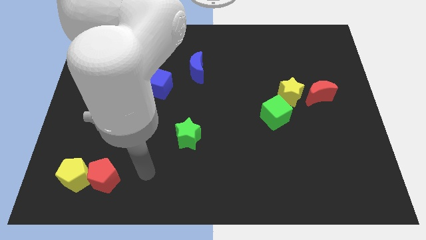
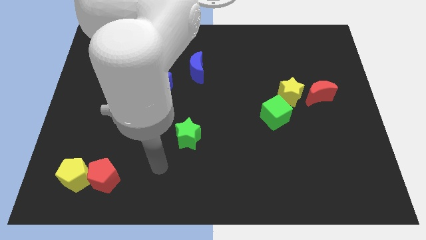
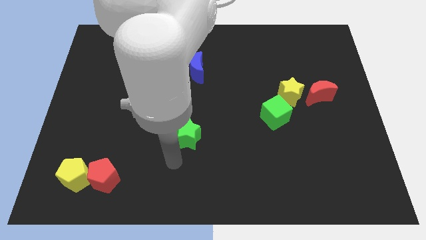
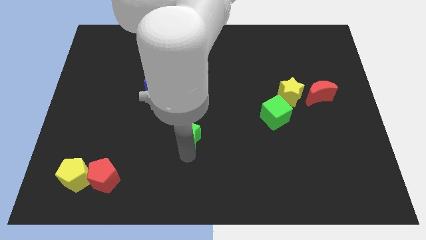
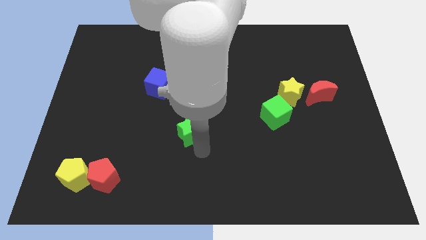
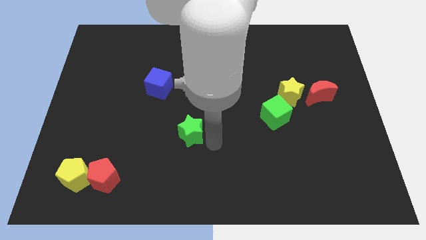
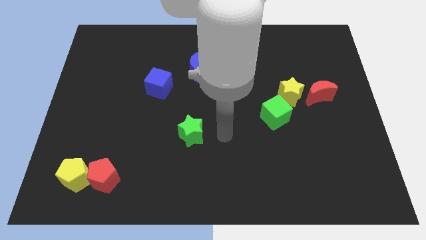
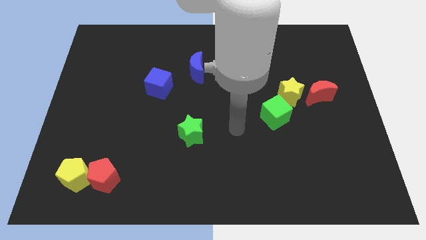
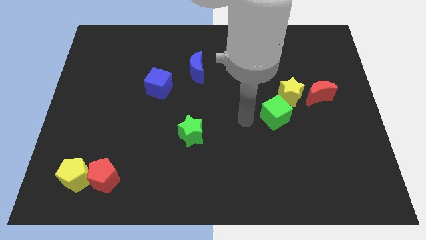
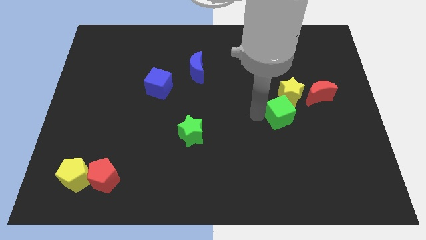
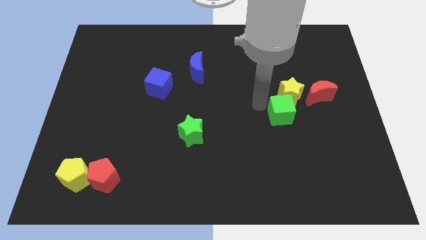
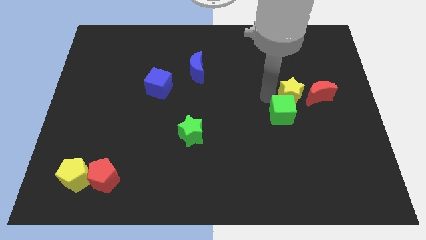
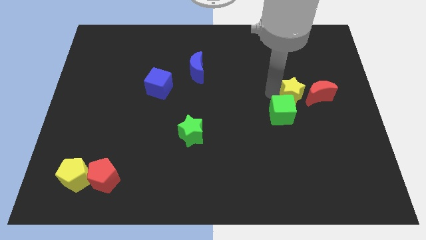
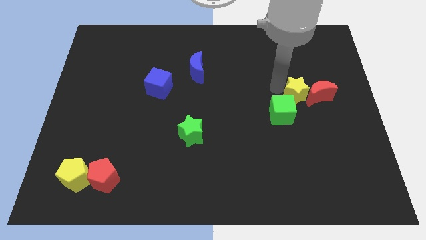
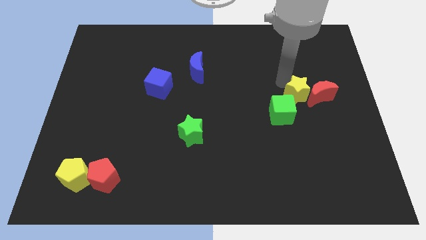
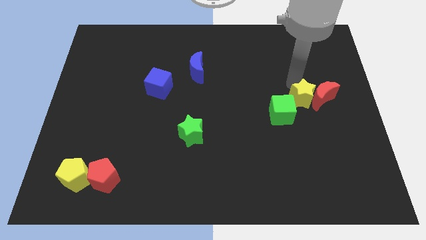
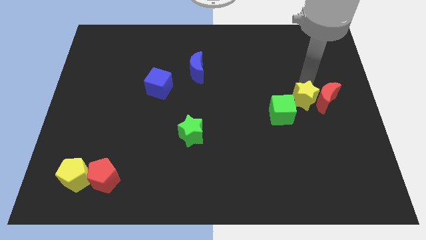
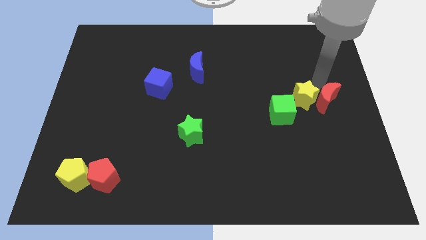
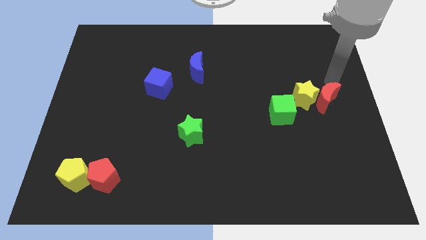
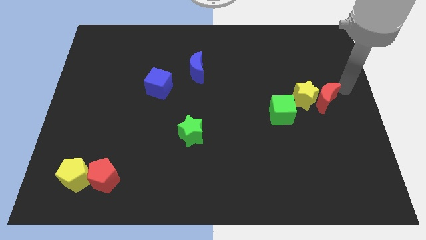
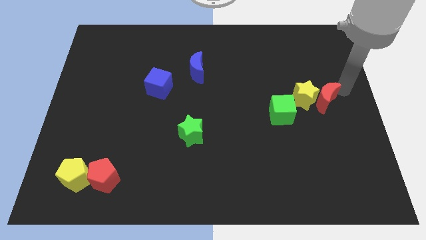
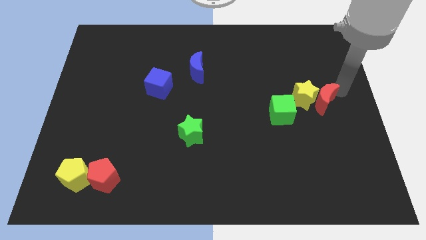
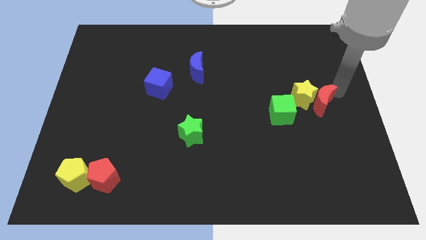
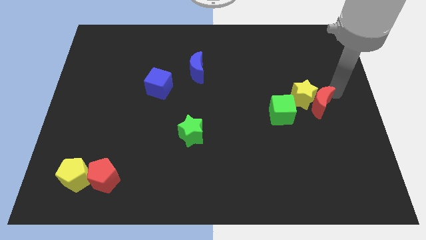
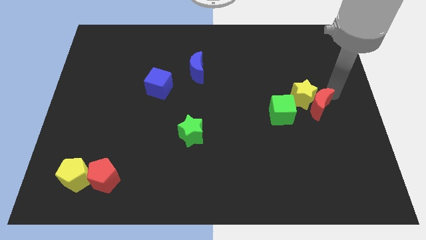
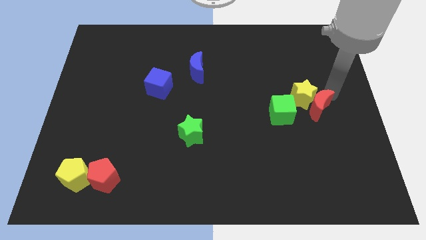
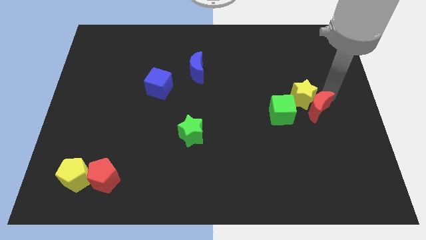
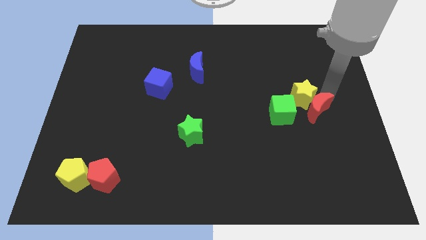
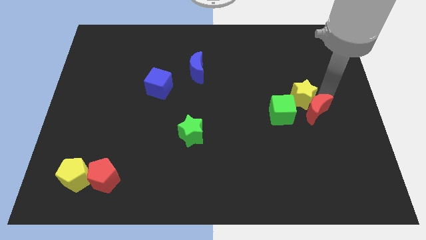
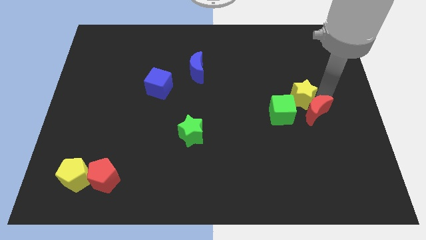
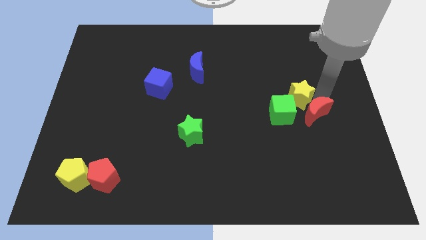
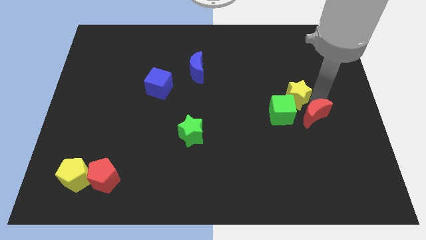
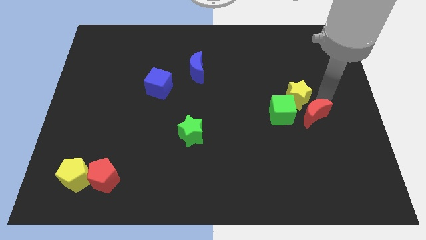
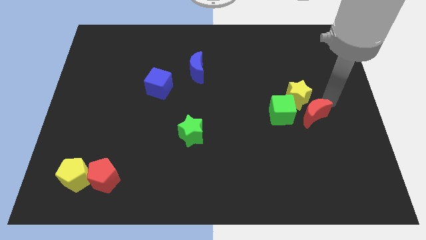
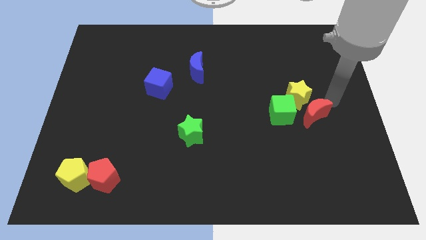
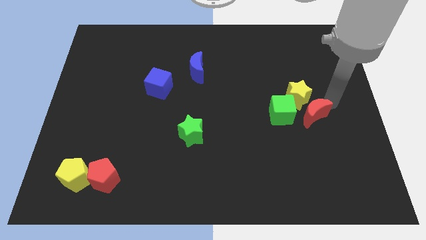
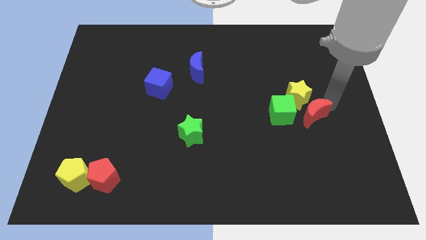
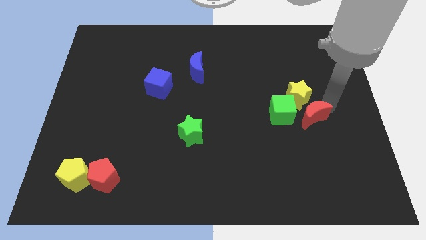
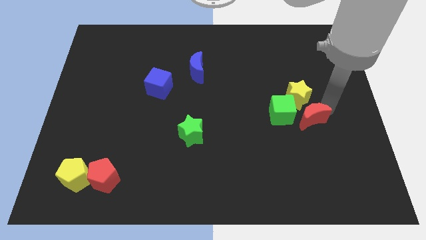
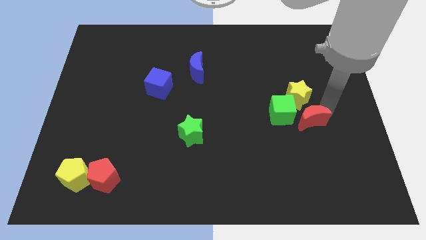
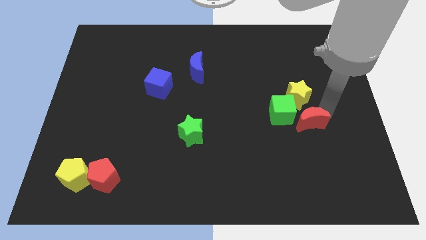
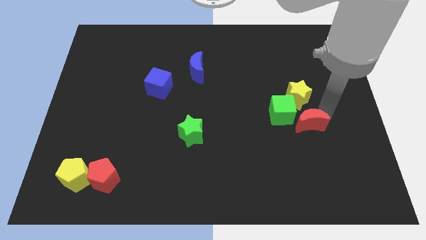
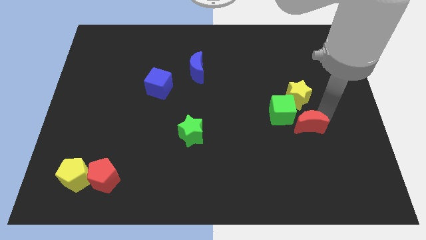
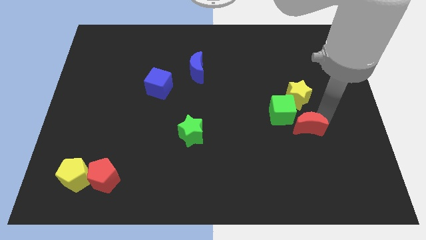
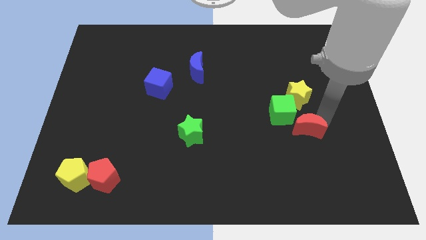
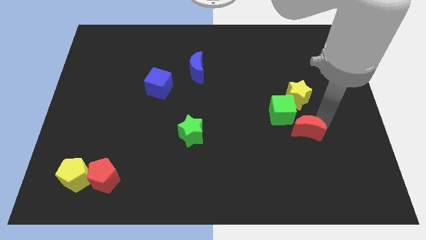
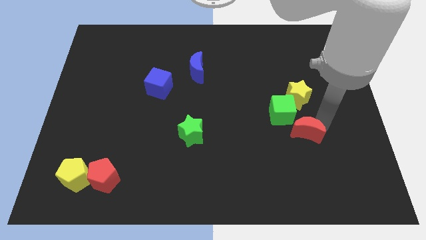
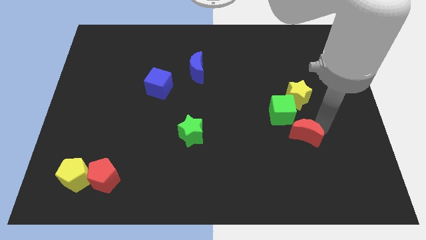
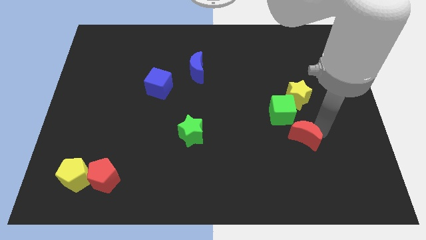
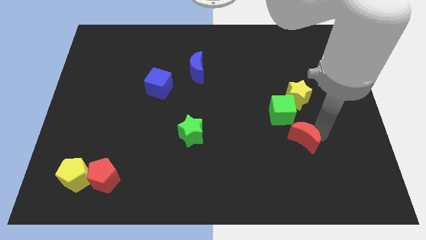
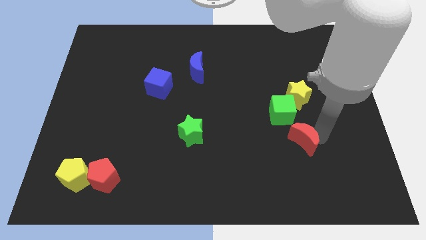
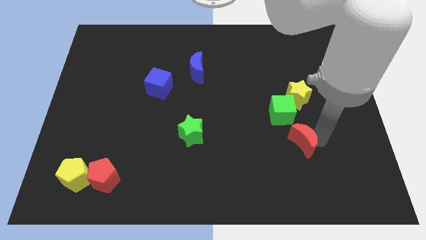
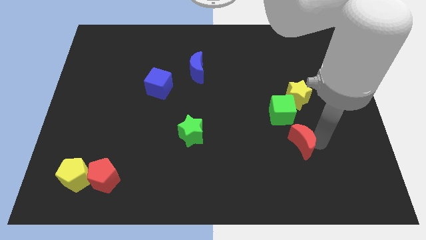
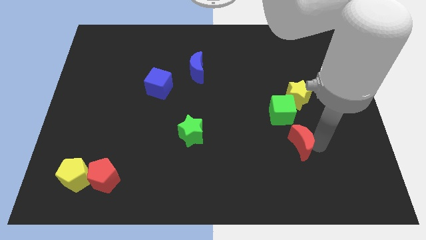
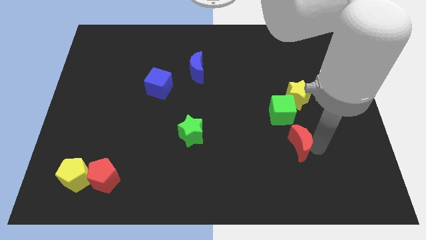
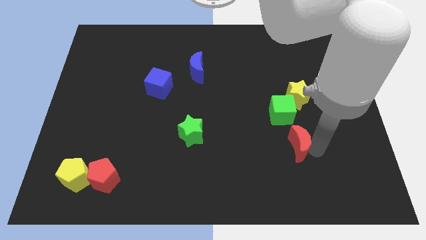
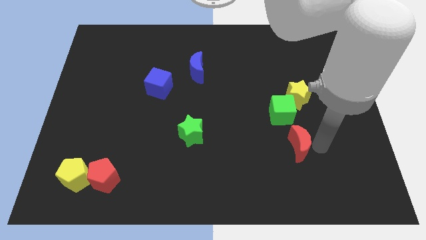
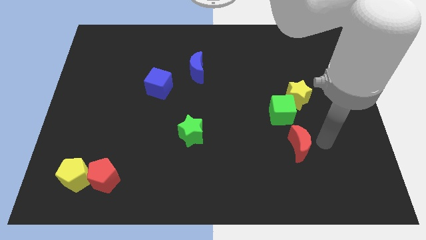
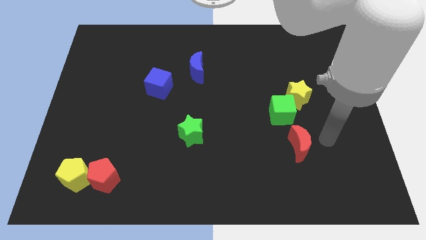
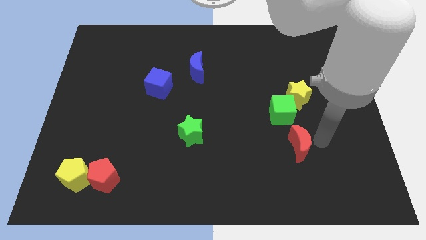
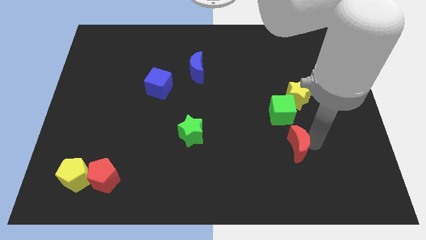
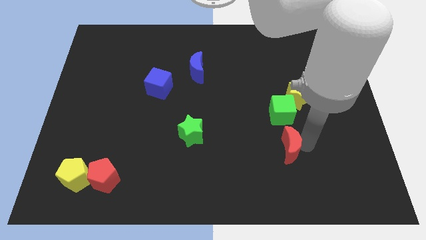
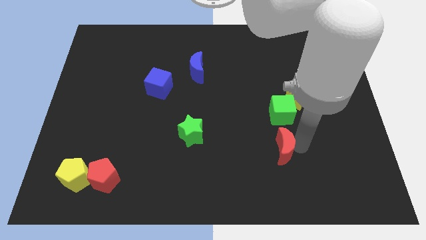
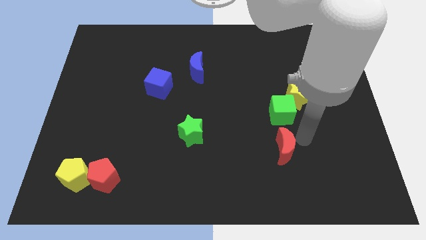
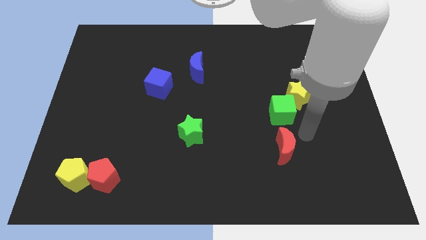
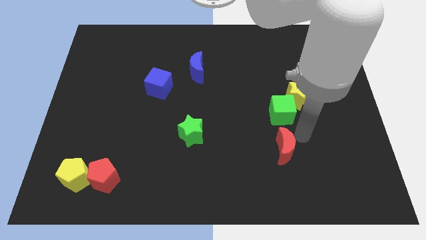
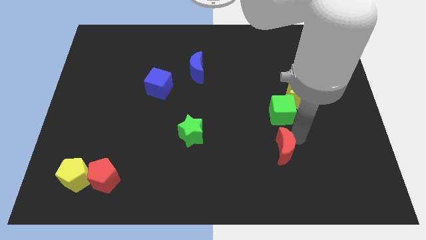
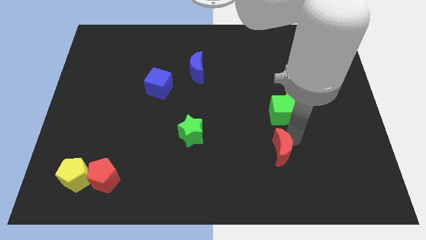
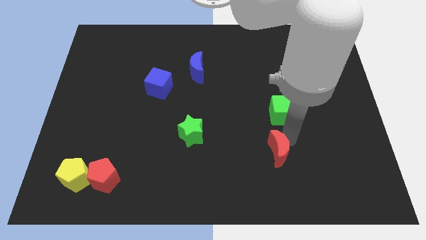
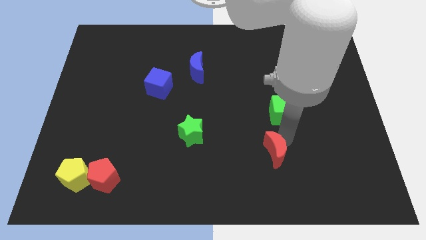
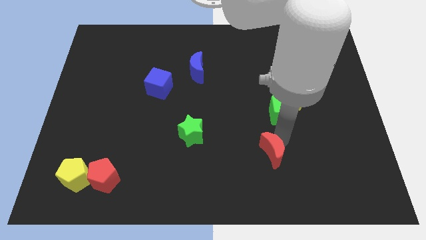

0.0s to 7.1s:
slide the red moon diagonally downwards and to the left

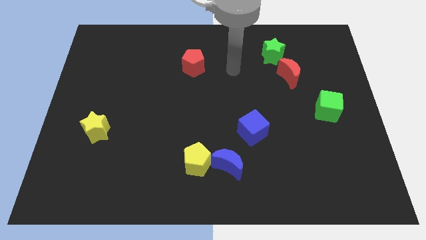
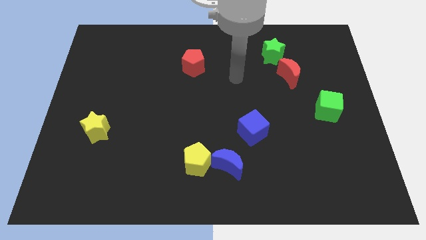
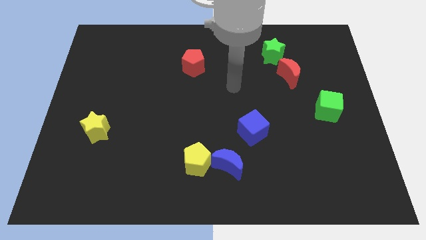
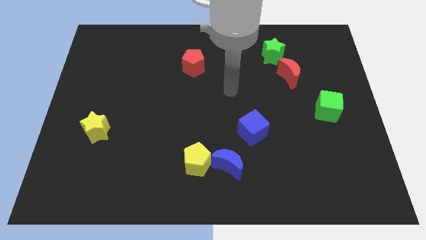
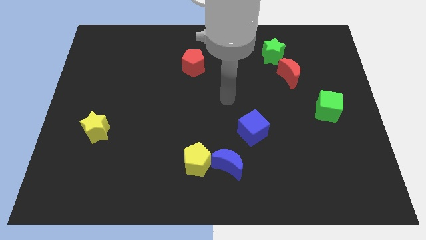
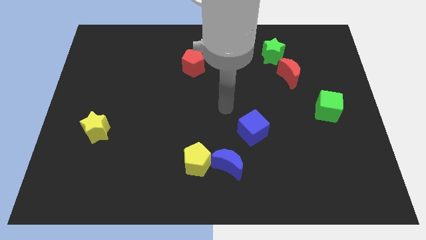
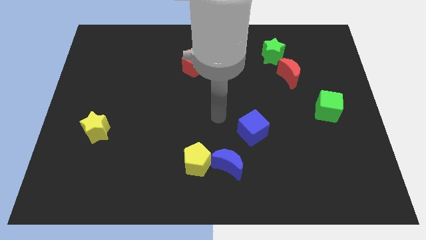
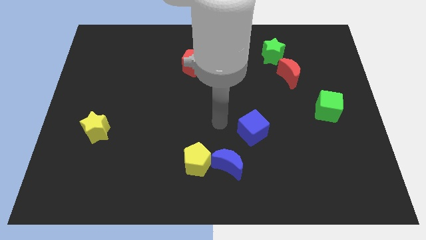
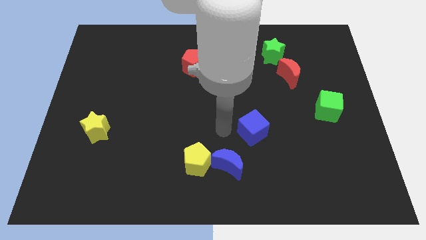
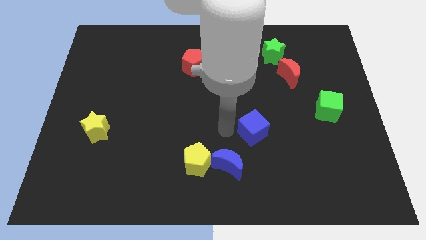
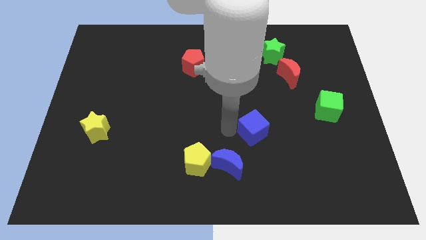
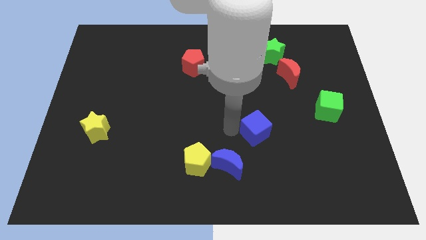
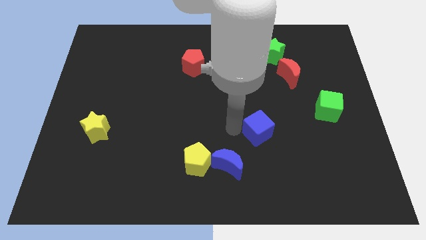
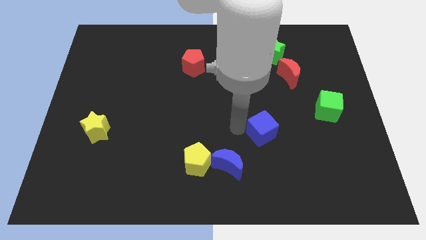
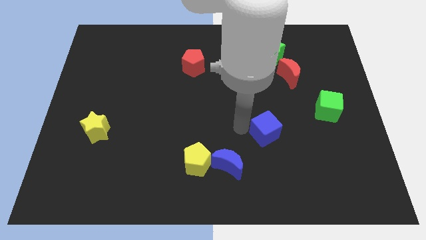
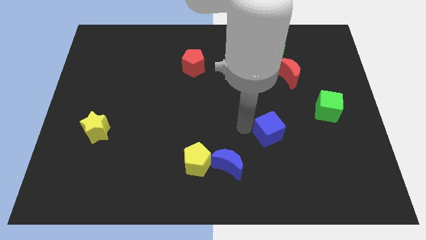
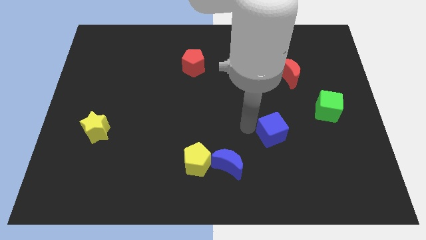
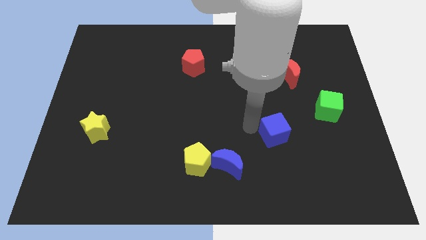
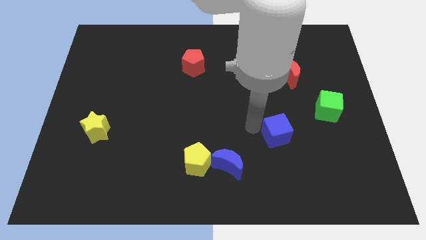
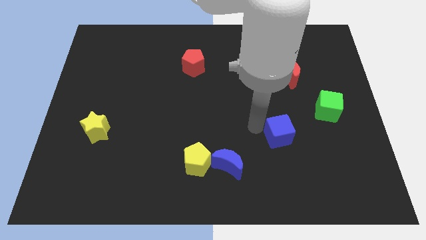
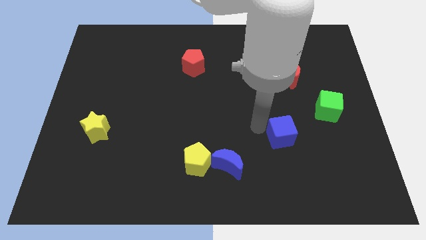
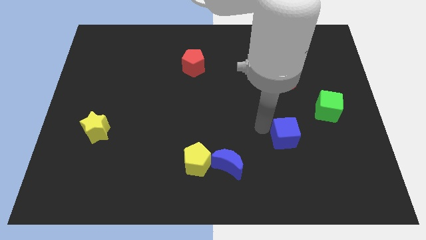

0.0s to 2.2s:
slide the blue cube to the right a bit
